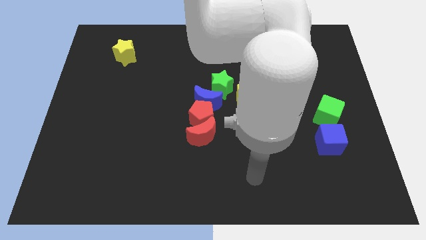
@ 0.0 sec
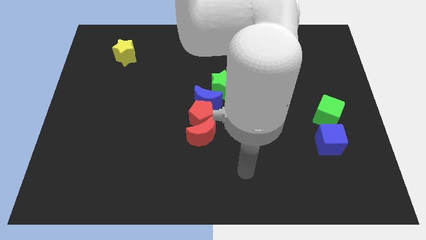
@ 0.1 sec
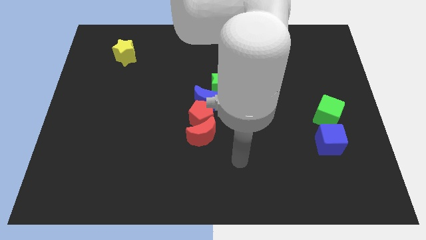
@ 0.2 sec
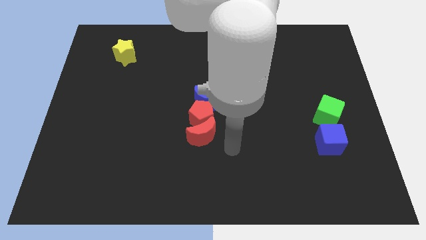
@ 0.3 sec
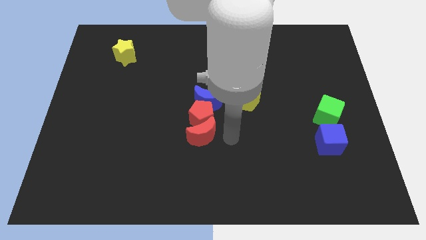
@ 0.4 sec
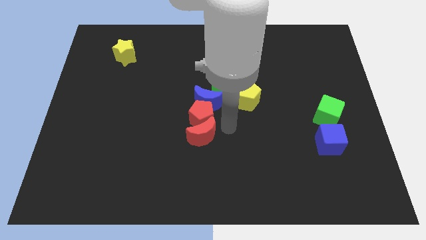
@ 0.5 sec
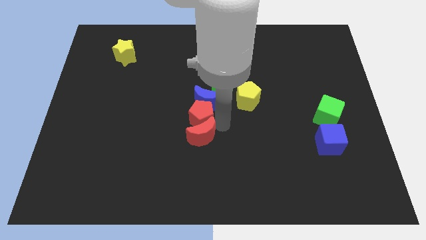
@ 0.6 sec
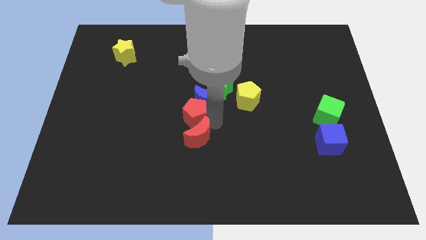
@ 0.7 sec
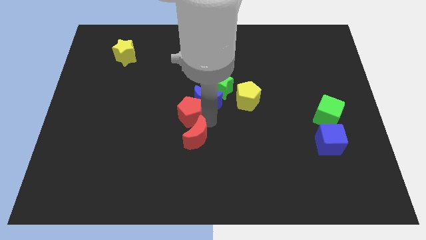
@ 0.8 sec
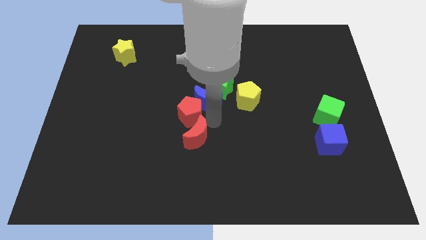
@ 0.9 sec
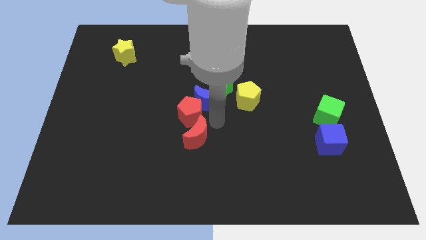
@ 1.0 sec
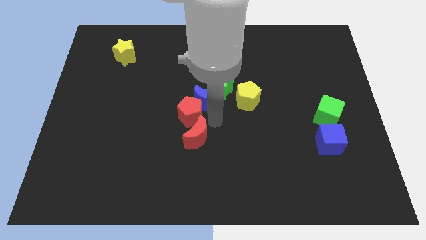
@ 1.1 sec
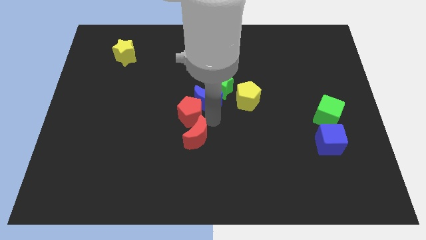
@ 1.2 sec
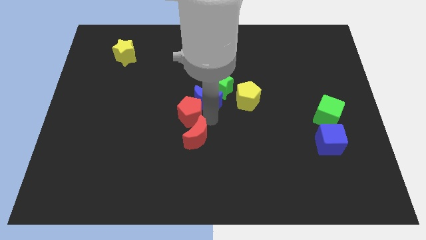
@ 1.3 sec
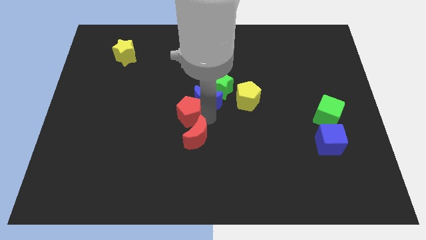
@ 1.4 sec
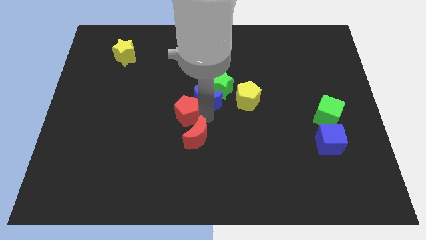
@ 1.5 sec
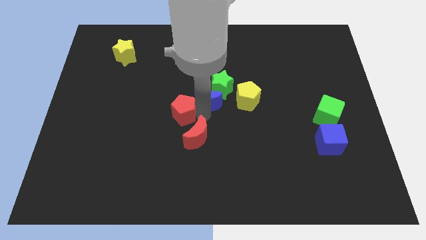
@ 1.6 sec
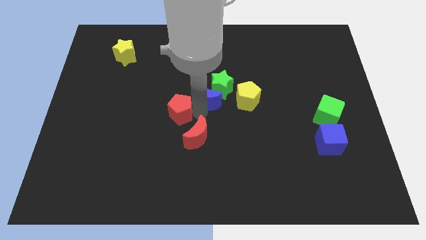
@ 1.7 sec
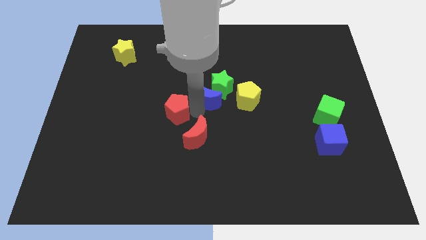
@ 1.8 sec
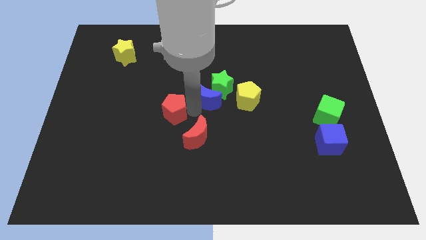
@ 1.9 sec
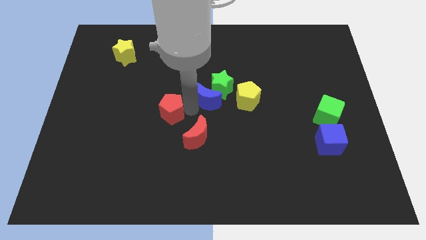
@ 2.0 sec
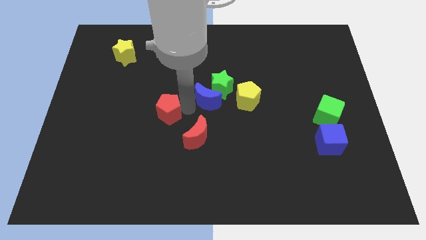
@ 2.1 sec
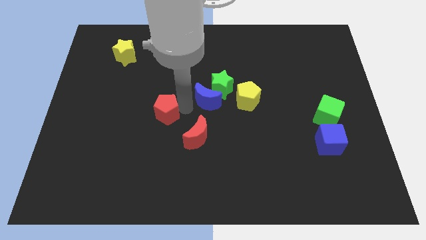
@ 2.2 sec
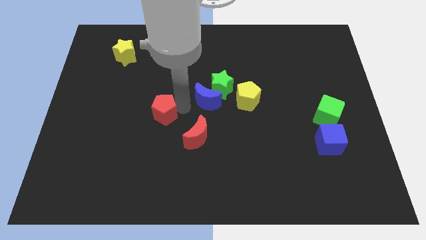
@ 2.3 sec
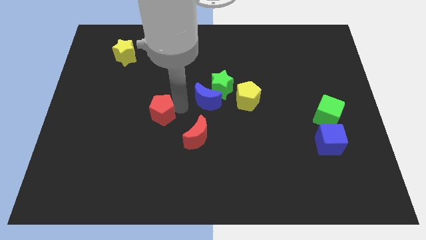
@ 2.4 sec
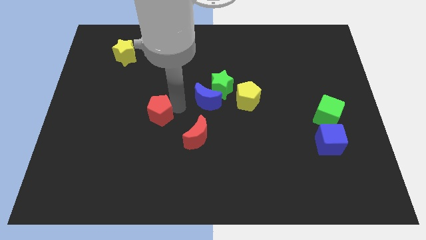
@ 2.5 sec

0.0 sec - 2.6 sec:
separate the red pentagon from the blue moon and red moon

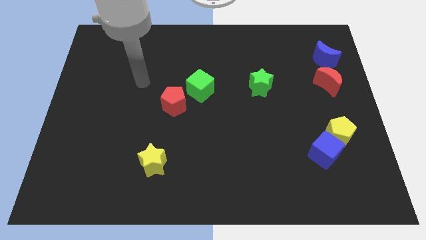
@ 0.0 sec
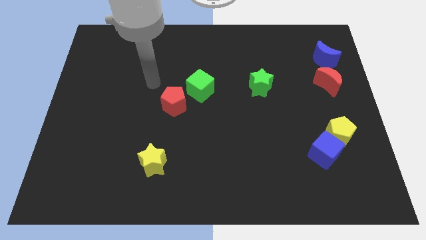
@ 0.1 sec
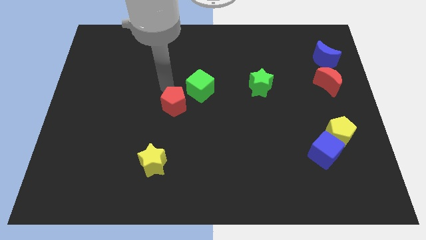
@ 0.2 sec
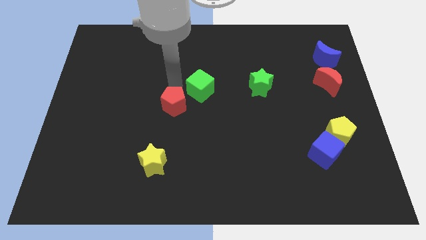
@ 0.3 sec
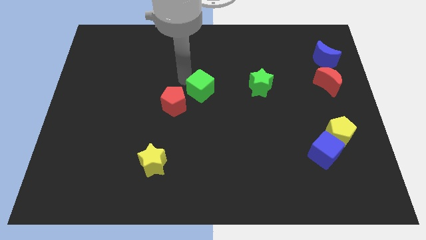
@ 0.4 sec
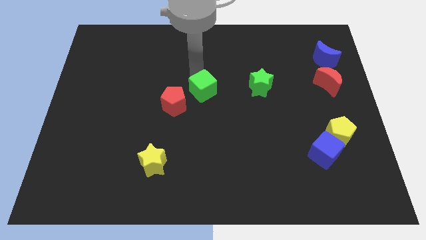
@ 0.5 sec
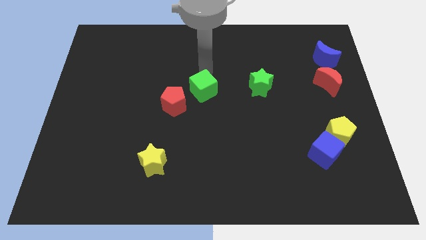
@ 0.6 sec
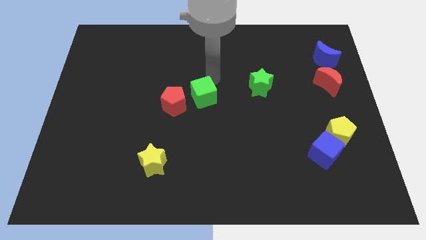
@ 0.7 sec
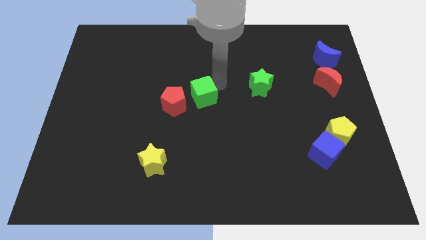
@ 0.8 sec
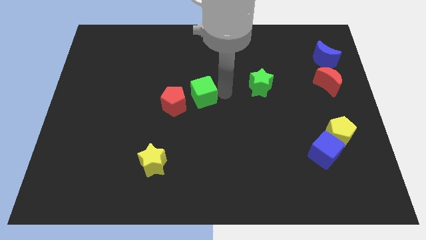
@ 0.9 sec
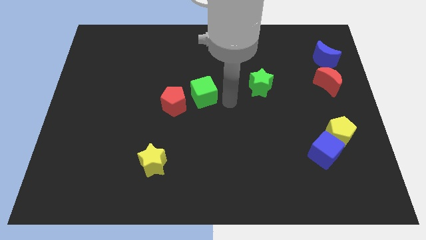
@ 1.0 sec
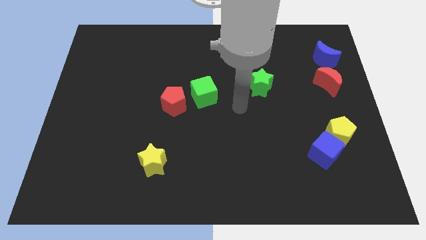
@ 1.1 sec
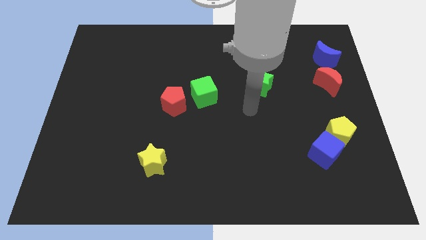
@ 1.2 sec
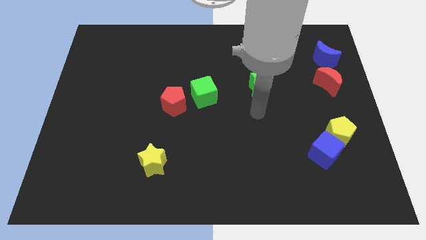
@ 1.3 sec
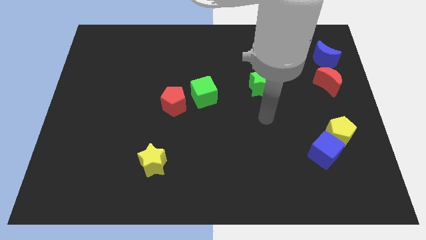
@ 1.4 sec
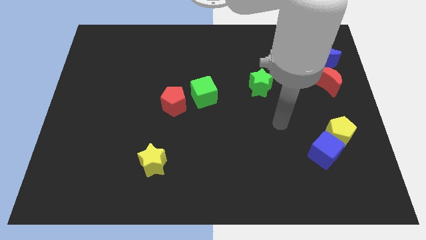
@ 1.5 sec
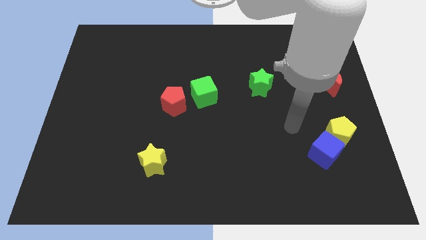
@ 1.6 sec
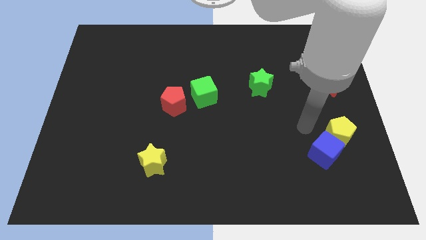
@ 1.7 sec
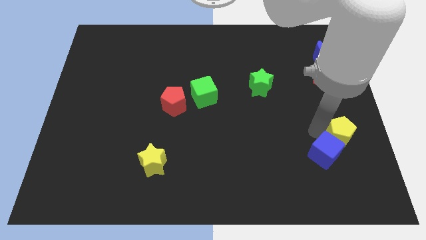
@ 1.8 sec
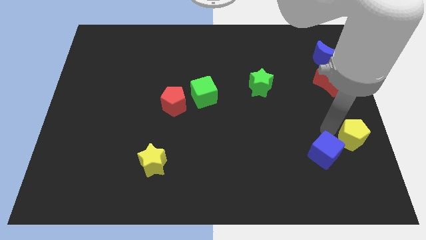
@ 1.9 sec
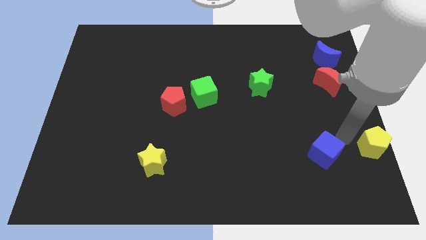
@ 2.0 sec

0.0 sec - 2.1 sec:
separate the blue cube from the yellow pentagon

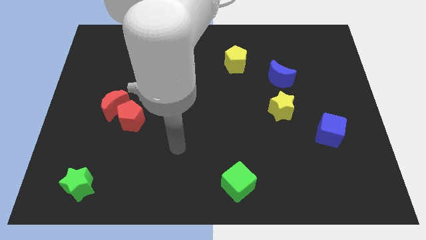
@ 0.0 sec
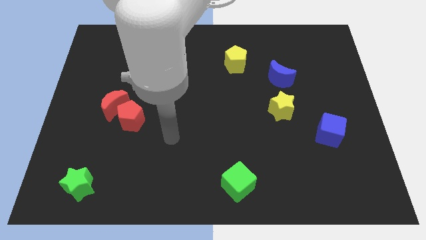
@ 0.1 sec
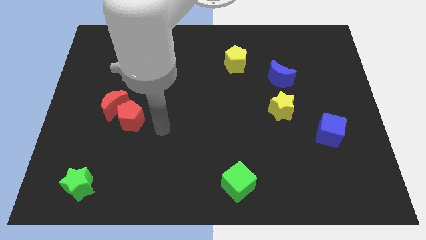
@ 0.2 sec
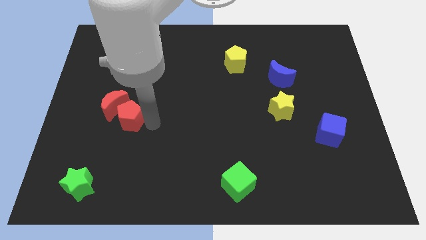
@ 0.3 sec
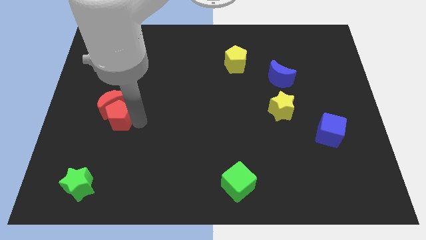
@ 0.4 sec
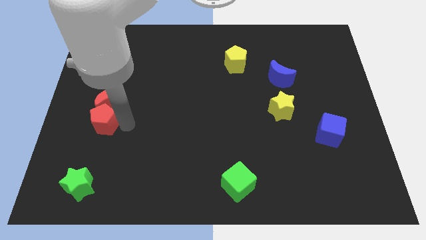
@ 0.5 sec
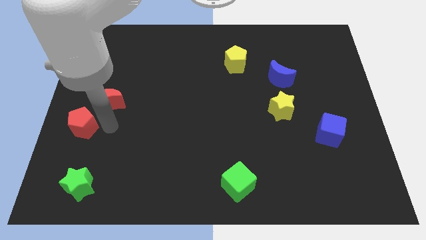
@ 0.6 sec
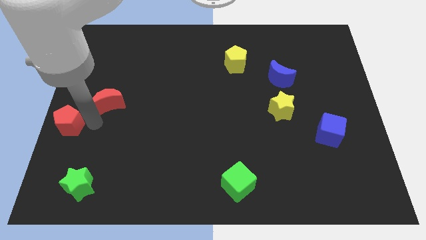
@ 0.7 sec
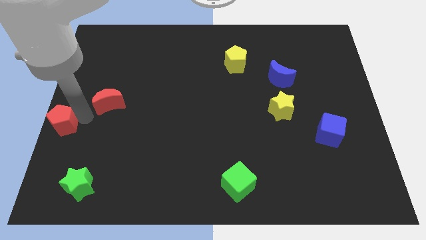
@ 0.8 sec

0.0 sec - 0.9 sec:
pull the red moon apart from the red pentagon

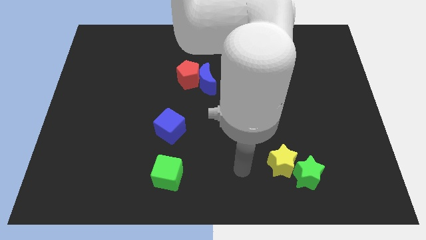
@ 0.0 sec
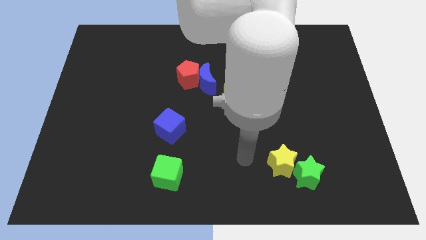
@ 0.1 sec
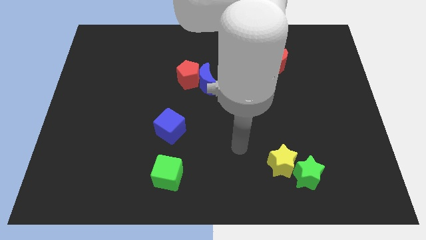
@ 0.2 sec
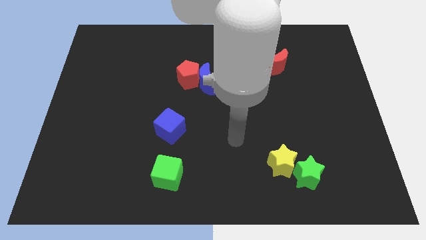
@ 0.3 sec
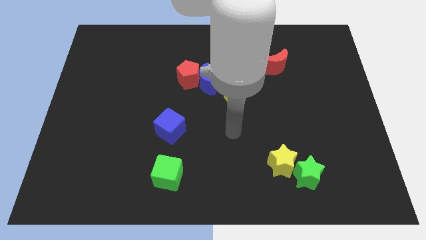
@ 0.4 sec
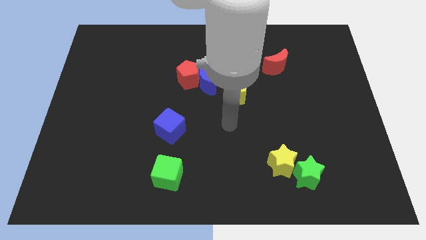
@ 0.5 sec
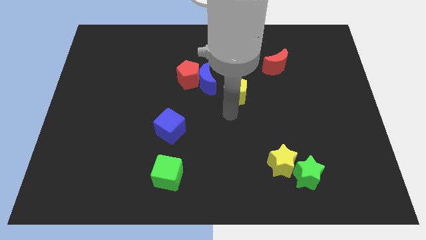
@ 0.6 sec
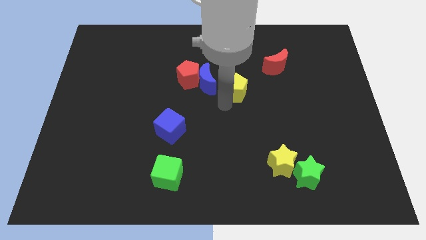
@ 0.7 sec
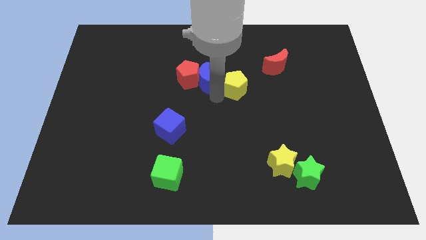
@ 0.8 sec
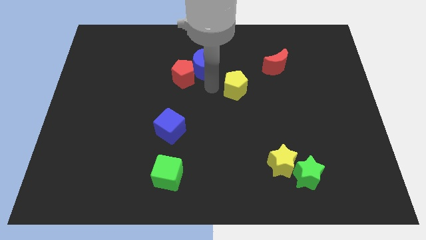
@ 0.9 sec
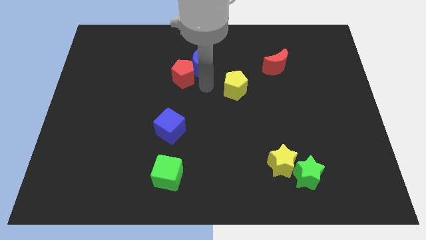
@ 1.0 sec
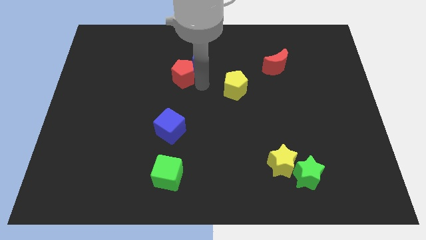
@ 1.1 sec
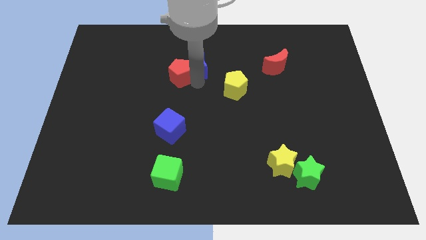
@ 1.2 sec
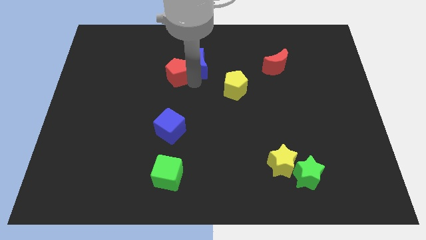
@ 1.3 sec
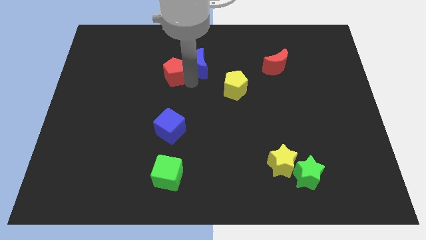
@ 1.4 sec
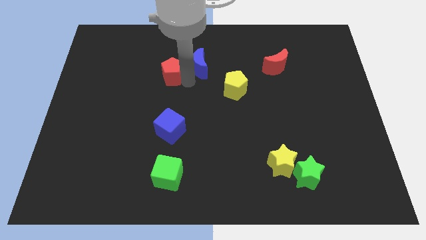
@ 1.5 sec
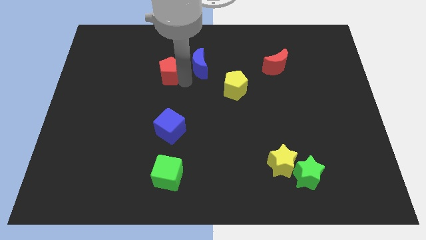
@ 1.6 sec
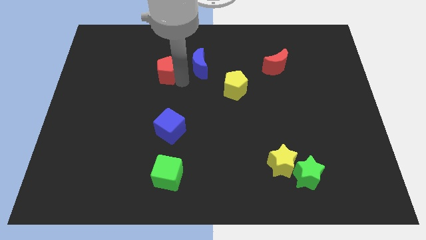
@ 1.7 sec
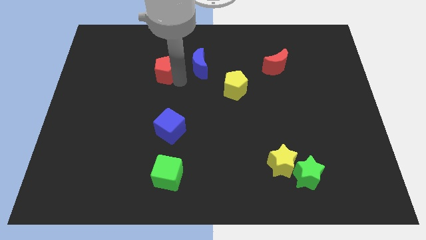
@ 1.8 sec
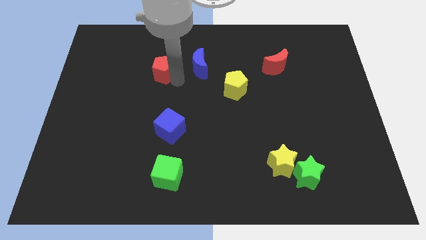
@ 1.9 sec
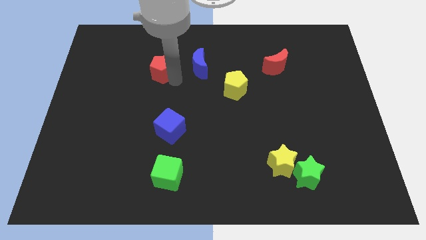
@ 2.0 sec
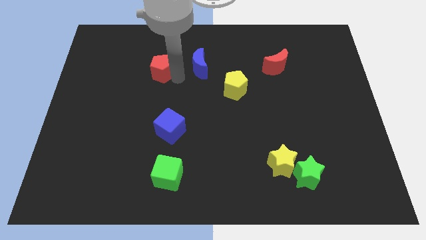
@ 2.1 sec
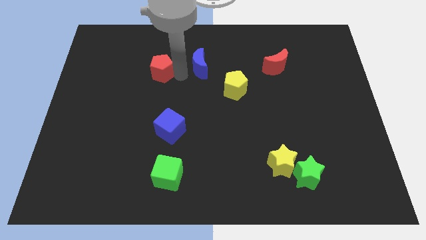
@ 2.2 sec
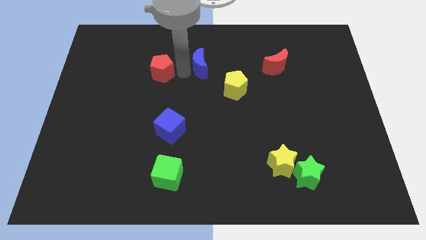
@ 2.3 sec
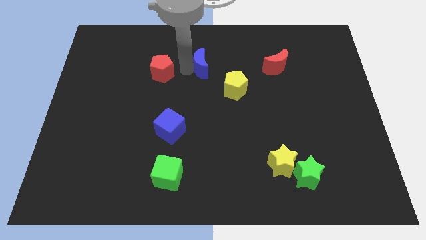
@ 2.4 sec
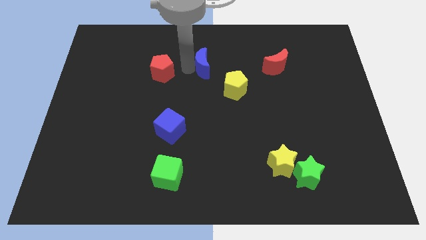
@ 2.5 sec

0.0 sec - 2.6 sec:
move the red pentagon away from the blue moon

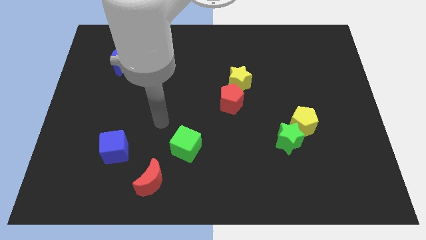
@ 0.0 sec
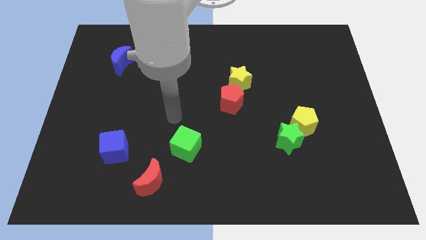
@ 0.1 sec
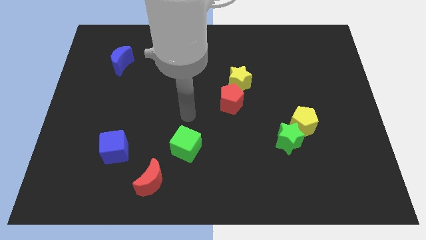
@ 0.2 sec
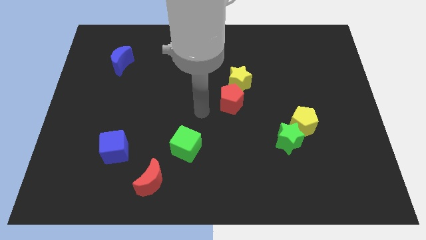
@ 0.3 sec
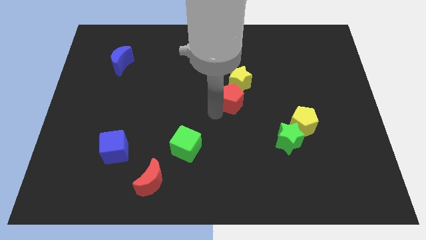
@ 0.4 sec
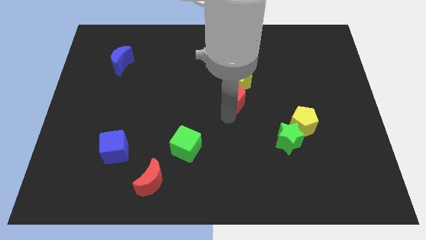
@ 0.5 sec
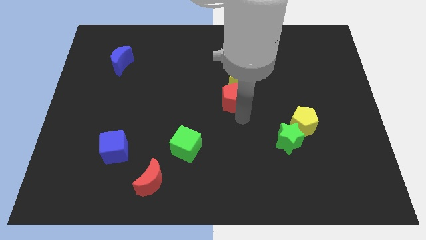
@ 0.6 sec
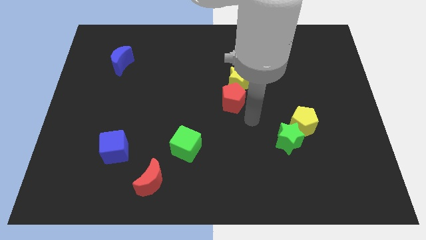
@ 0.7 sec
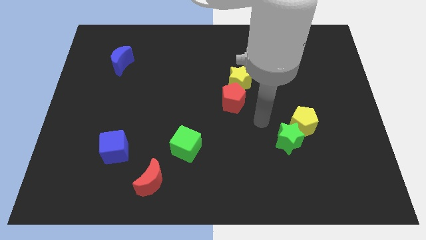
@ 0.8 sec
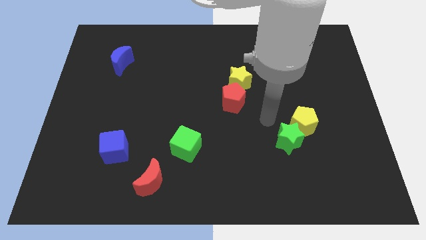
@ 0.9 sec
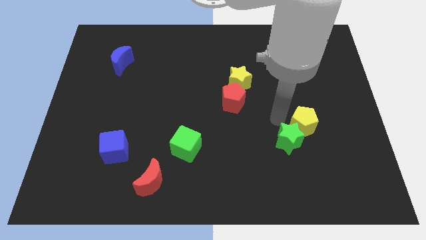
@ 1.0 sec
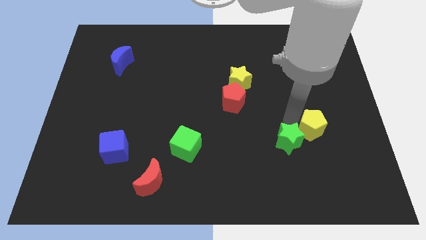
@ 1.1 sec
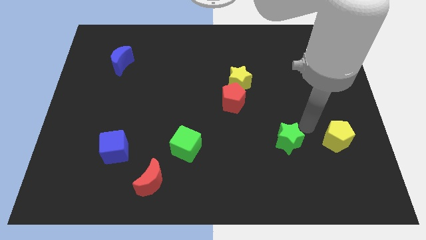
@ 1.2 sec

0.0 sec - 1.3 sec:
separate the green star from the yellow pentagon
